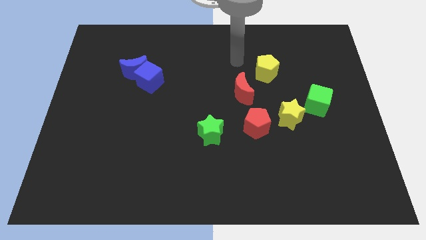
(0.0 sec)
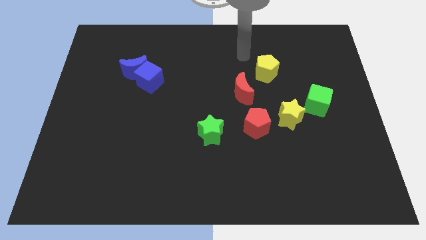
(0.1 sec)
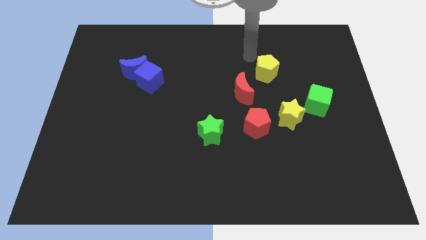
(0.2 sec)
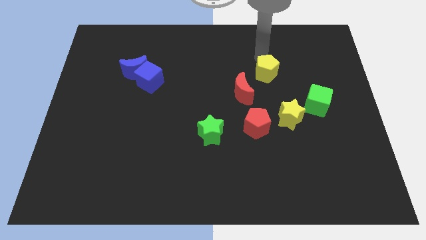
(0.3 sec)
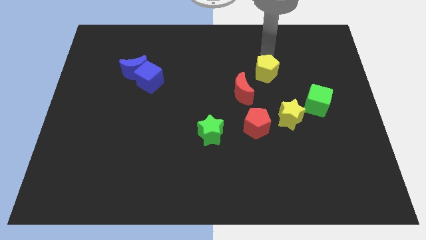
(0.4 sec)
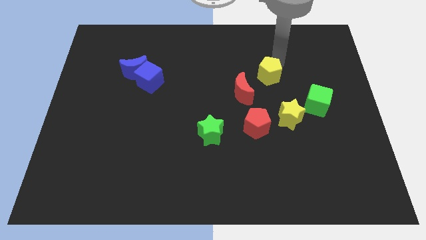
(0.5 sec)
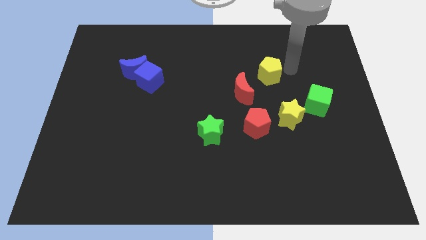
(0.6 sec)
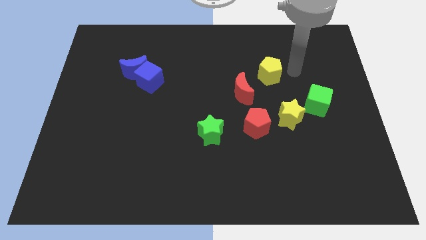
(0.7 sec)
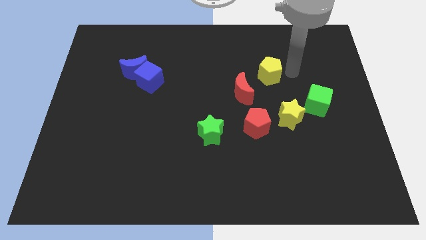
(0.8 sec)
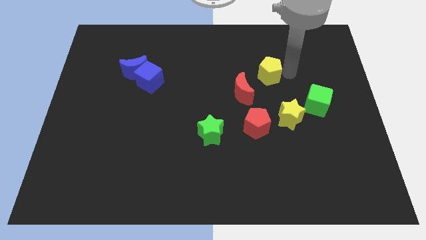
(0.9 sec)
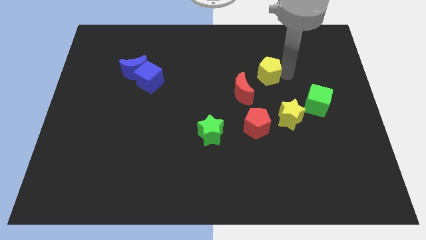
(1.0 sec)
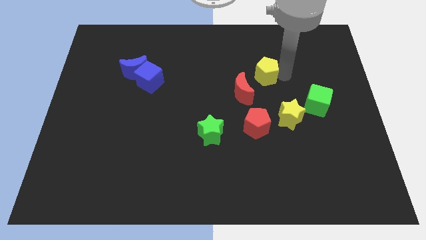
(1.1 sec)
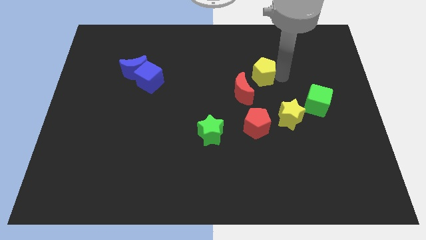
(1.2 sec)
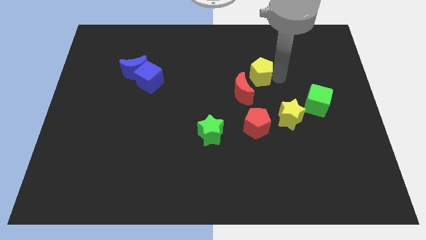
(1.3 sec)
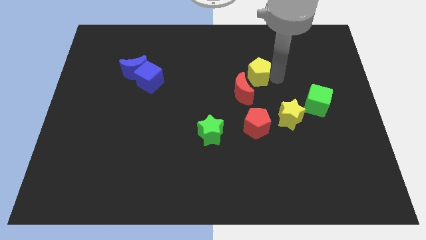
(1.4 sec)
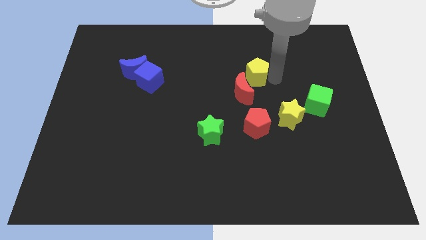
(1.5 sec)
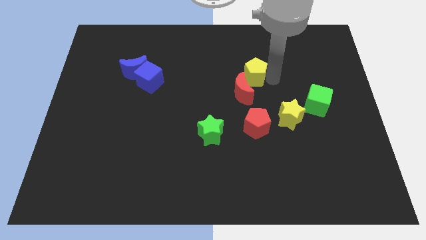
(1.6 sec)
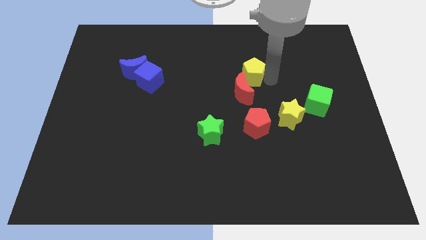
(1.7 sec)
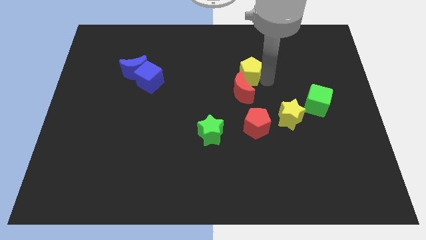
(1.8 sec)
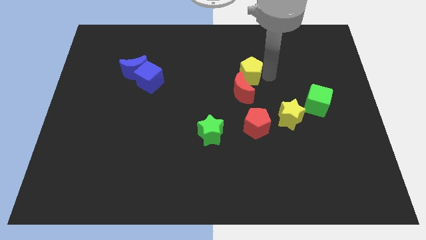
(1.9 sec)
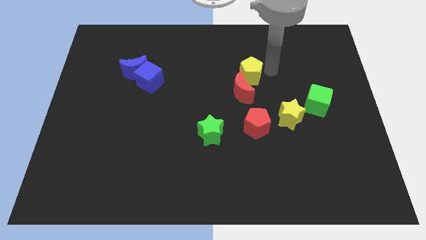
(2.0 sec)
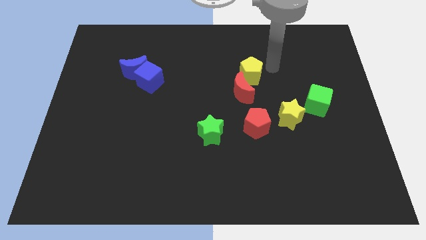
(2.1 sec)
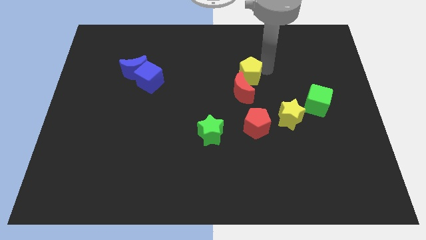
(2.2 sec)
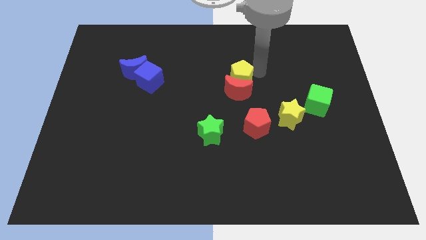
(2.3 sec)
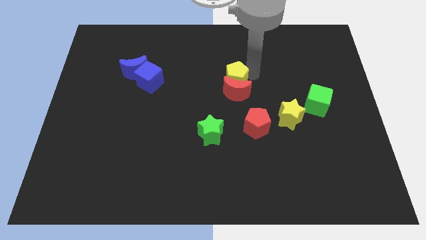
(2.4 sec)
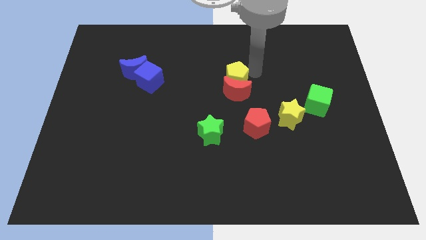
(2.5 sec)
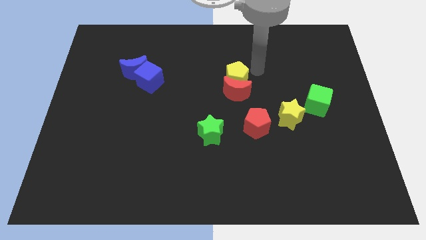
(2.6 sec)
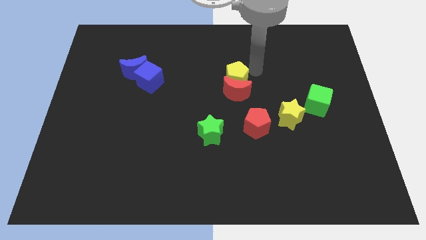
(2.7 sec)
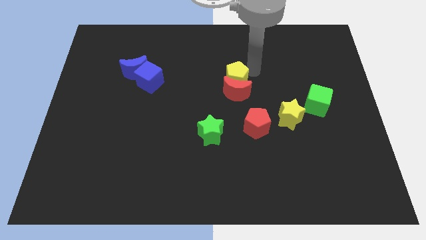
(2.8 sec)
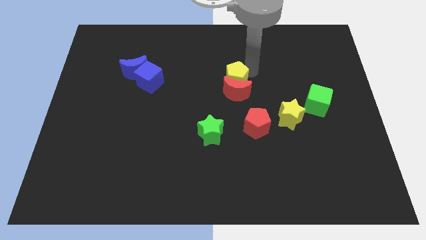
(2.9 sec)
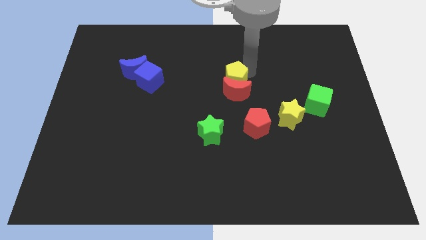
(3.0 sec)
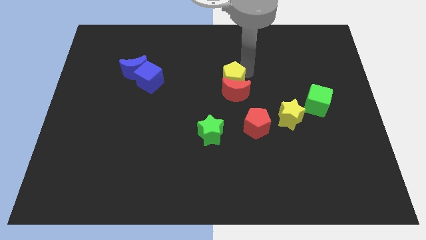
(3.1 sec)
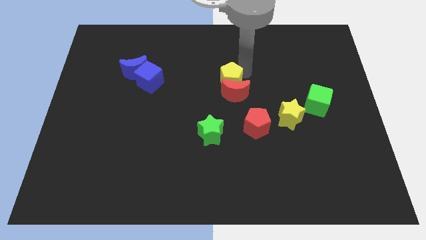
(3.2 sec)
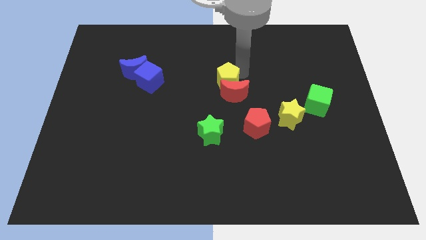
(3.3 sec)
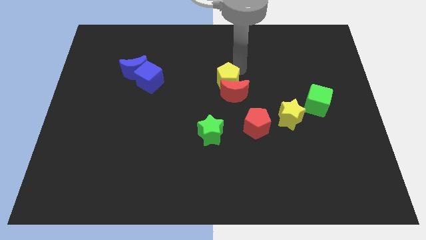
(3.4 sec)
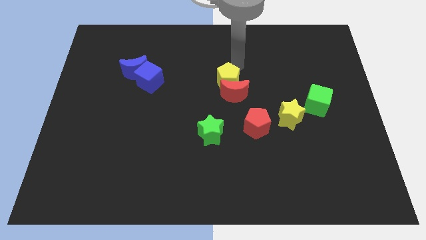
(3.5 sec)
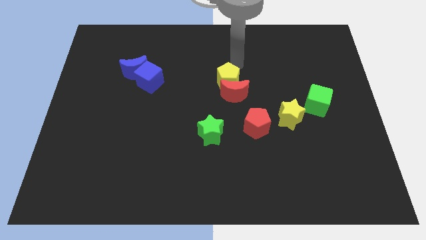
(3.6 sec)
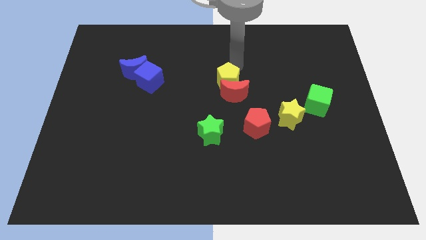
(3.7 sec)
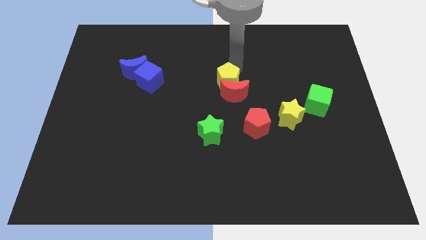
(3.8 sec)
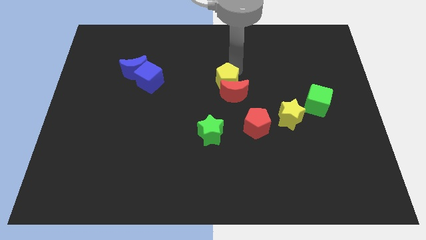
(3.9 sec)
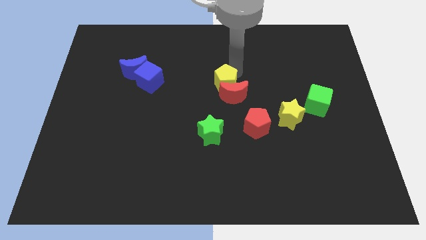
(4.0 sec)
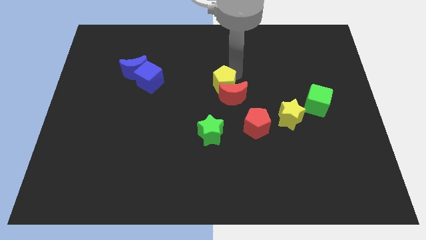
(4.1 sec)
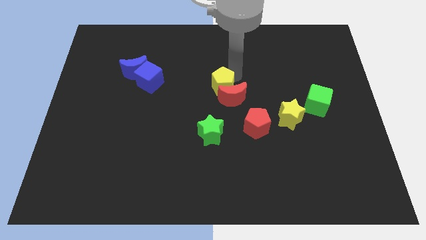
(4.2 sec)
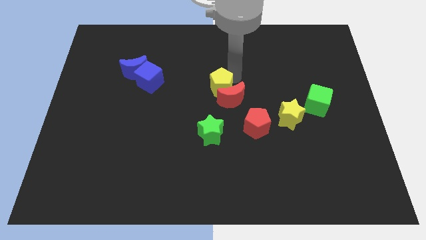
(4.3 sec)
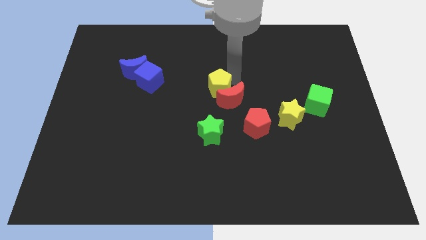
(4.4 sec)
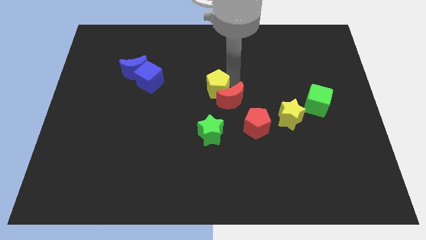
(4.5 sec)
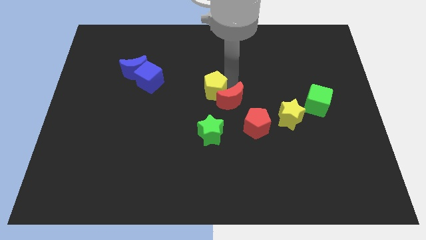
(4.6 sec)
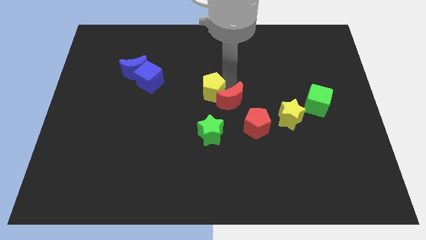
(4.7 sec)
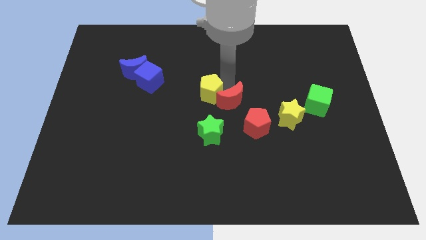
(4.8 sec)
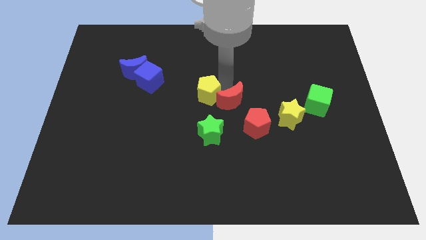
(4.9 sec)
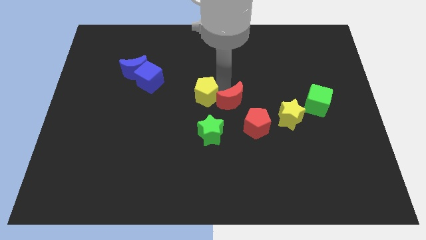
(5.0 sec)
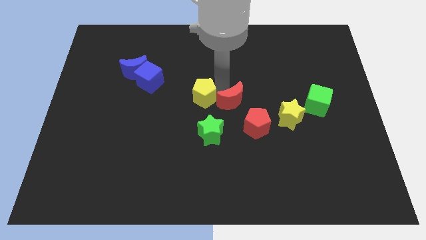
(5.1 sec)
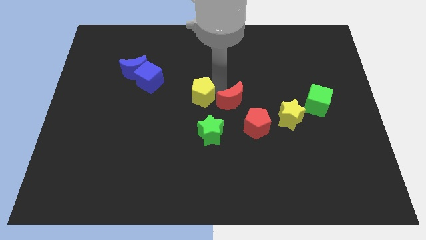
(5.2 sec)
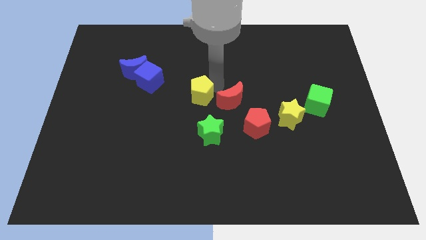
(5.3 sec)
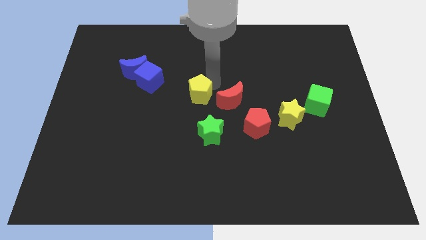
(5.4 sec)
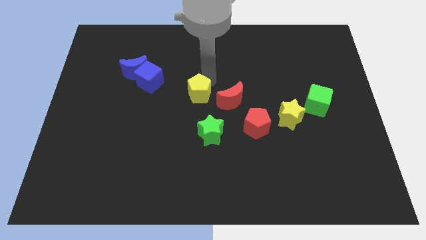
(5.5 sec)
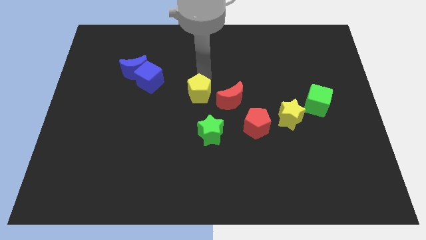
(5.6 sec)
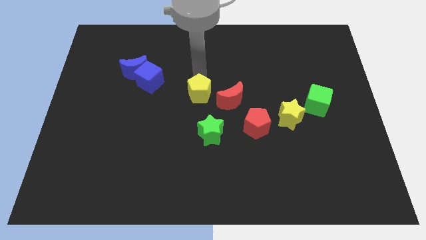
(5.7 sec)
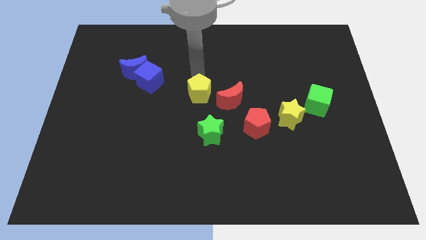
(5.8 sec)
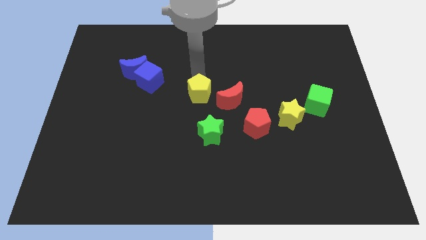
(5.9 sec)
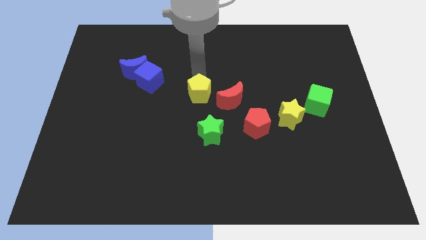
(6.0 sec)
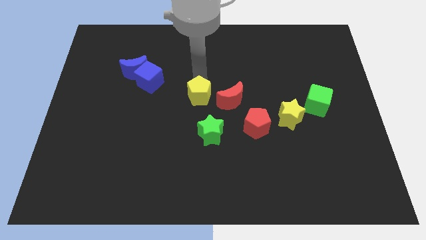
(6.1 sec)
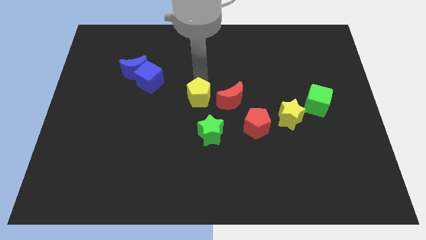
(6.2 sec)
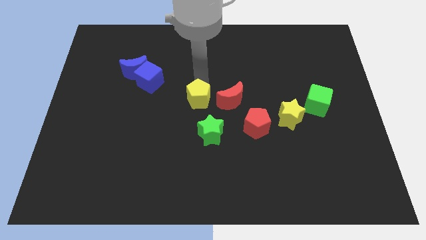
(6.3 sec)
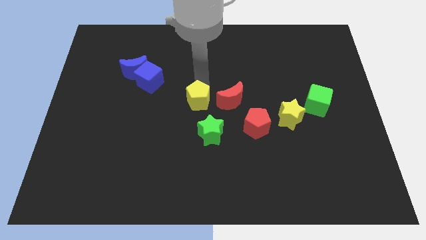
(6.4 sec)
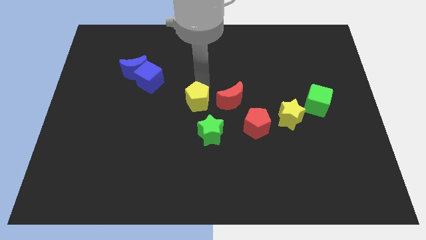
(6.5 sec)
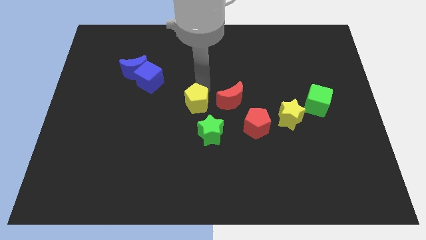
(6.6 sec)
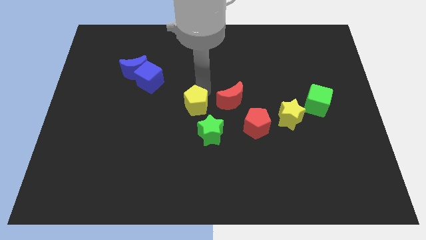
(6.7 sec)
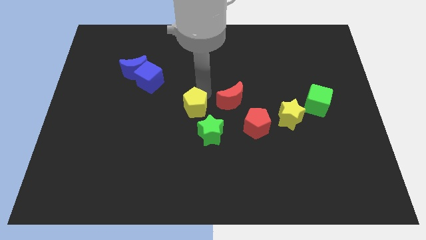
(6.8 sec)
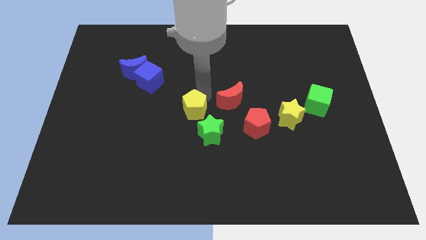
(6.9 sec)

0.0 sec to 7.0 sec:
move the yellow pentagon down and then to the left

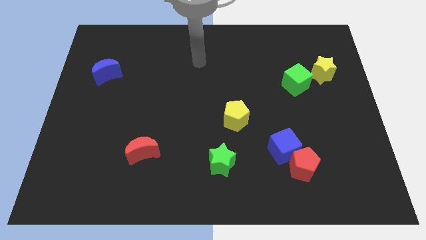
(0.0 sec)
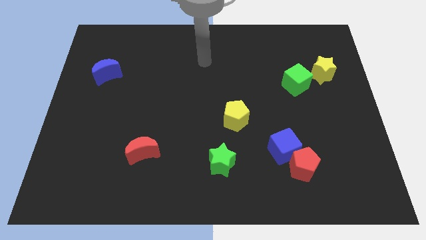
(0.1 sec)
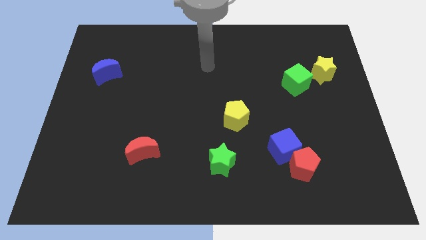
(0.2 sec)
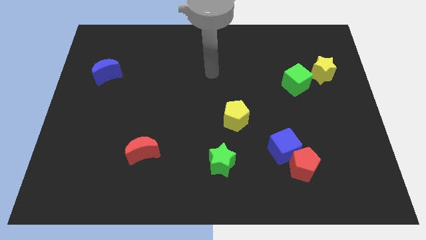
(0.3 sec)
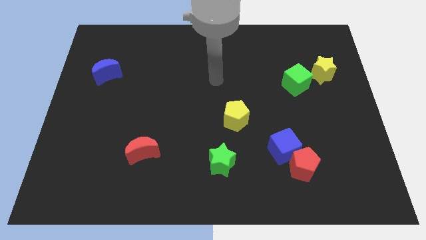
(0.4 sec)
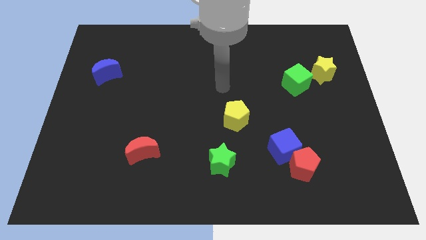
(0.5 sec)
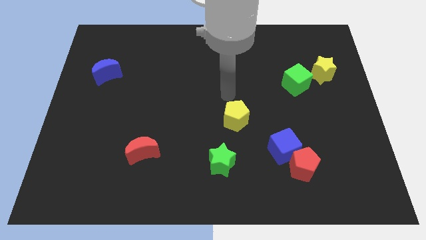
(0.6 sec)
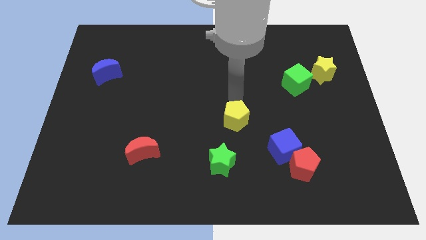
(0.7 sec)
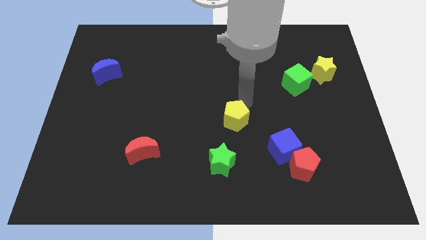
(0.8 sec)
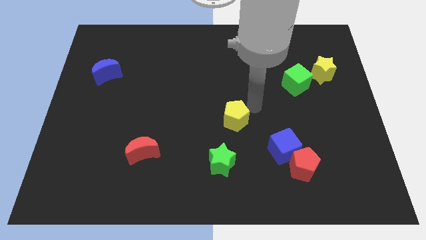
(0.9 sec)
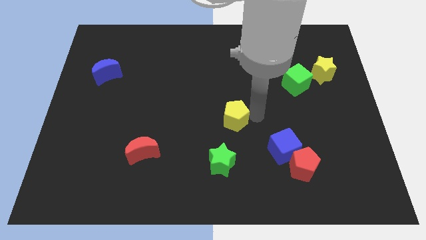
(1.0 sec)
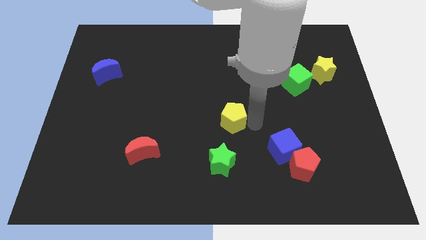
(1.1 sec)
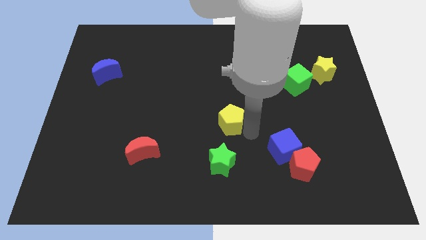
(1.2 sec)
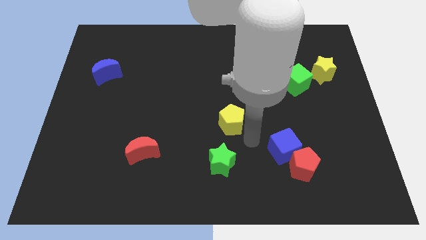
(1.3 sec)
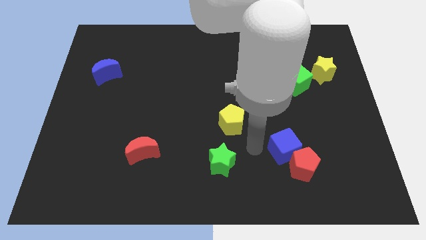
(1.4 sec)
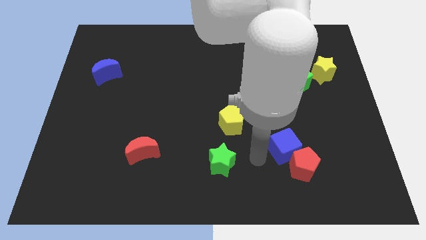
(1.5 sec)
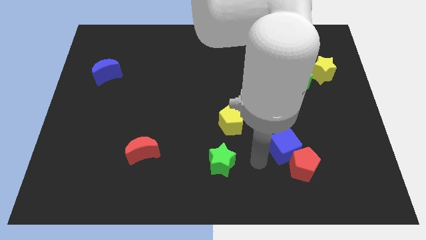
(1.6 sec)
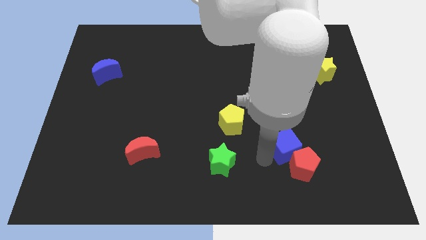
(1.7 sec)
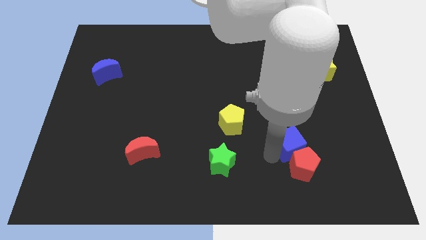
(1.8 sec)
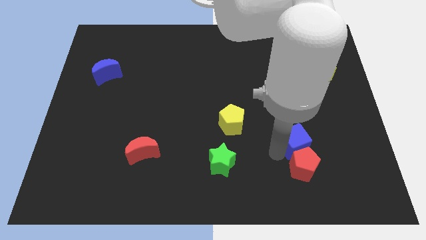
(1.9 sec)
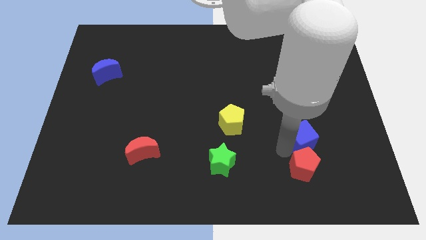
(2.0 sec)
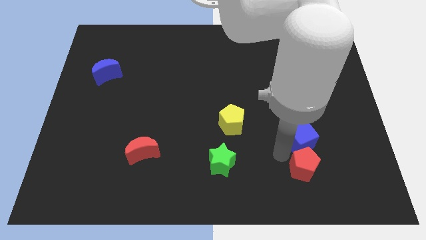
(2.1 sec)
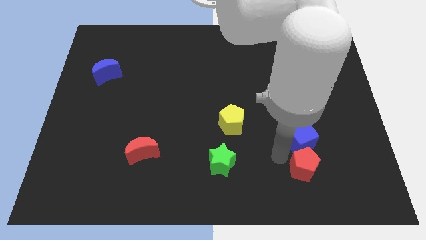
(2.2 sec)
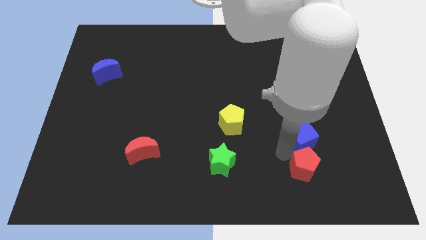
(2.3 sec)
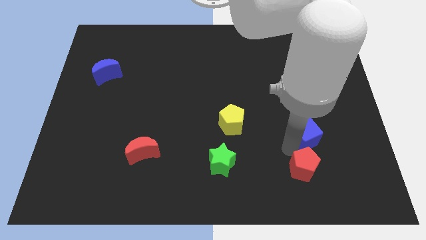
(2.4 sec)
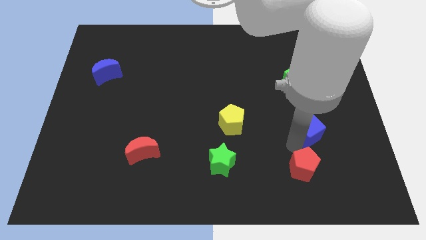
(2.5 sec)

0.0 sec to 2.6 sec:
slightly move the blue cube upwards and to the right diagonally
